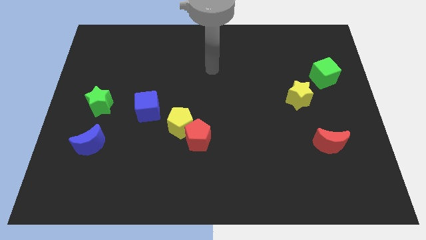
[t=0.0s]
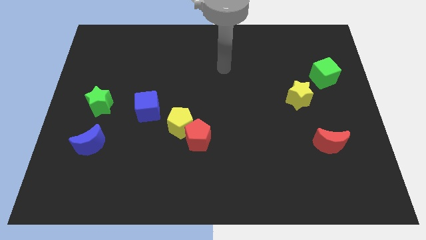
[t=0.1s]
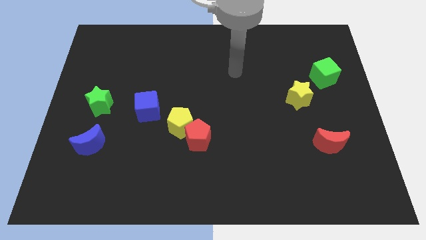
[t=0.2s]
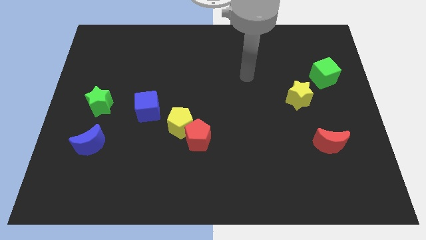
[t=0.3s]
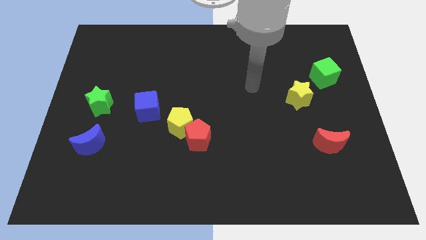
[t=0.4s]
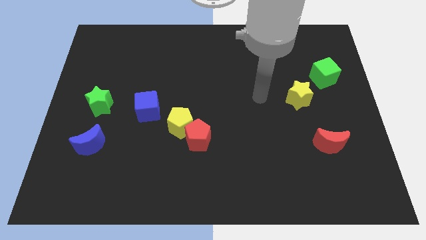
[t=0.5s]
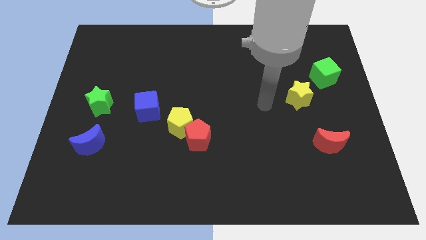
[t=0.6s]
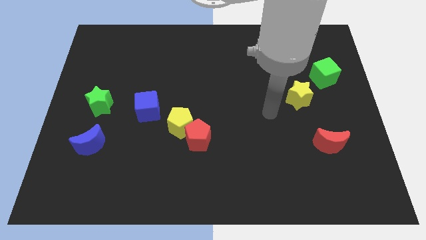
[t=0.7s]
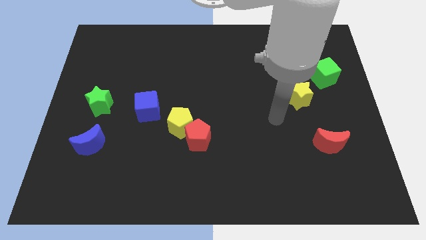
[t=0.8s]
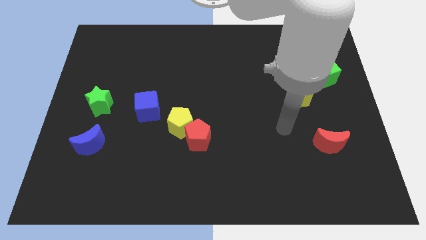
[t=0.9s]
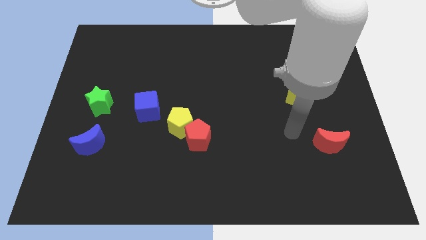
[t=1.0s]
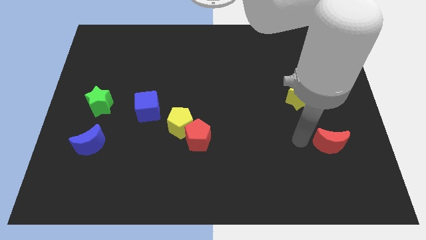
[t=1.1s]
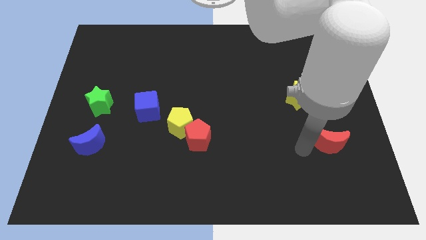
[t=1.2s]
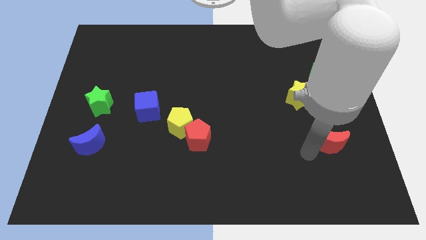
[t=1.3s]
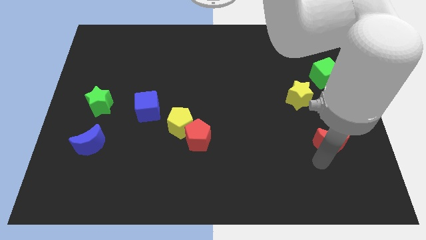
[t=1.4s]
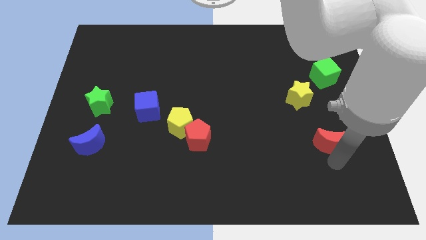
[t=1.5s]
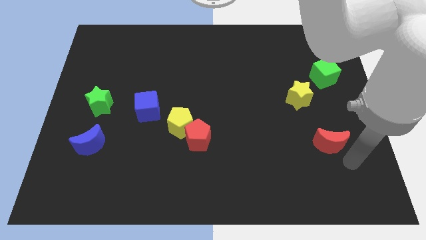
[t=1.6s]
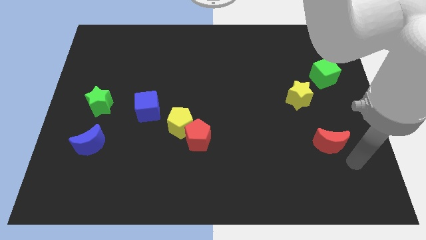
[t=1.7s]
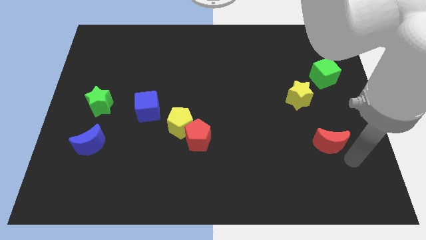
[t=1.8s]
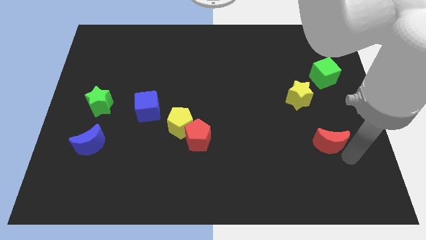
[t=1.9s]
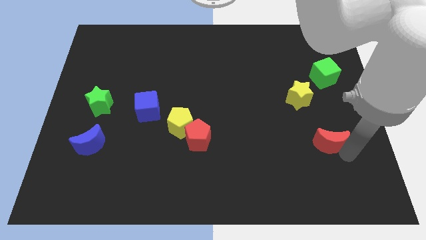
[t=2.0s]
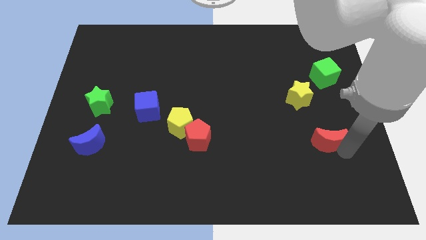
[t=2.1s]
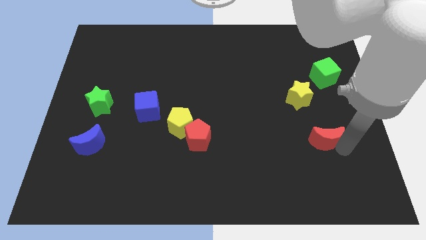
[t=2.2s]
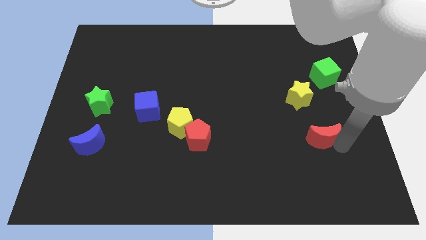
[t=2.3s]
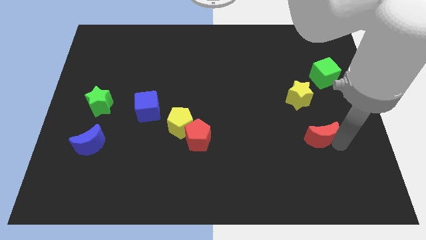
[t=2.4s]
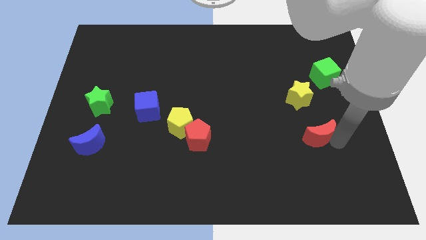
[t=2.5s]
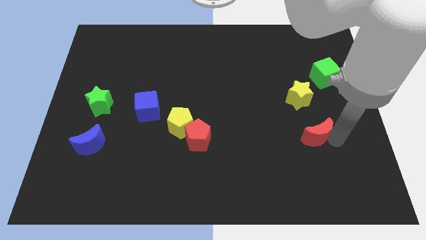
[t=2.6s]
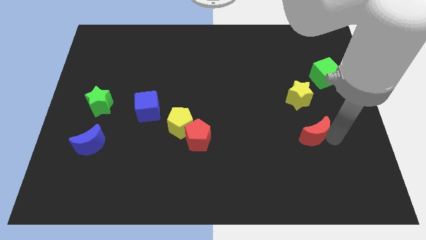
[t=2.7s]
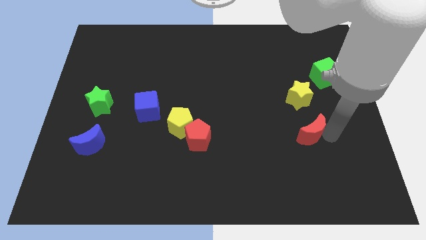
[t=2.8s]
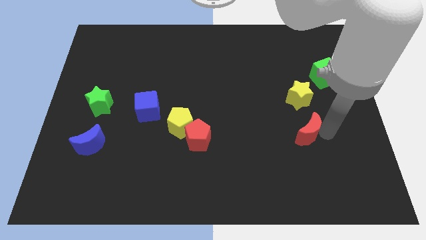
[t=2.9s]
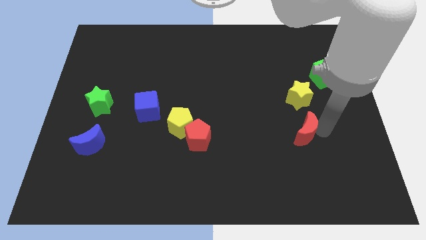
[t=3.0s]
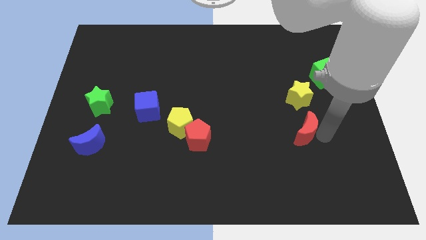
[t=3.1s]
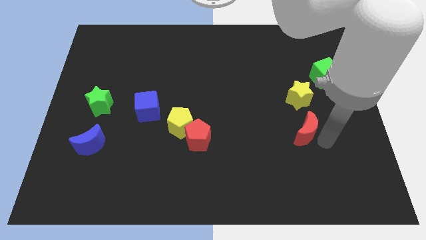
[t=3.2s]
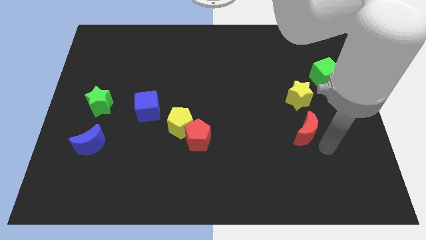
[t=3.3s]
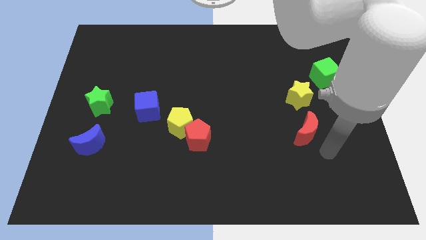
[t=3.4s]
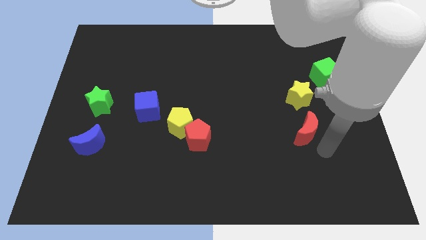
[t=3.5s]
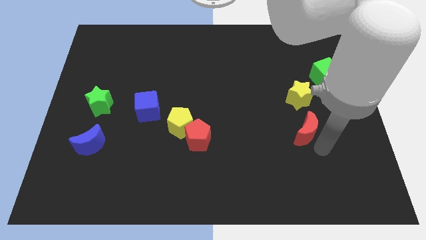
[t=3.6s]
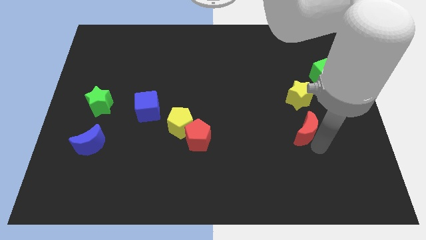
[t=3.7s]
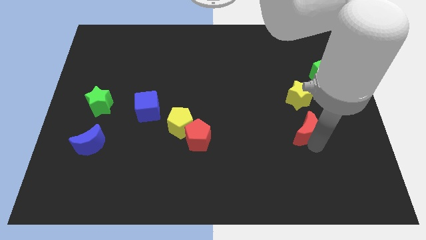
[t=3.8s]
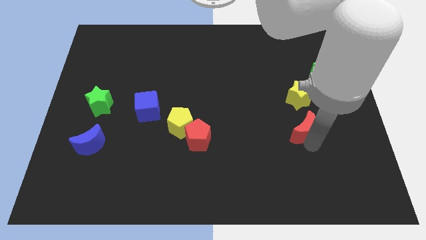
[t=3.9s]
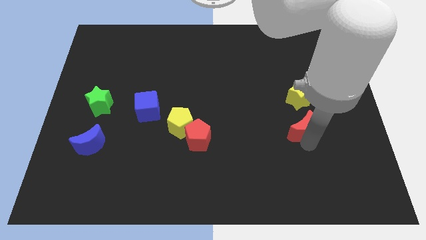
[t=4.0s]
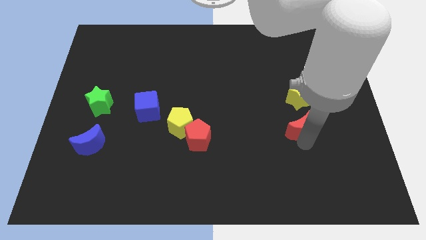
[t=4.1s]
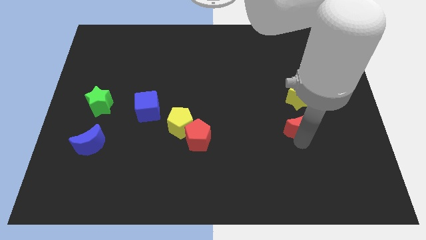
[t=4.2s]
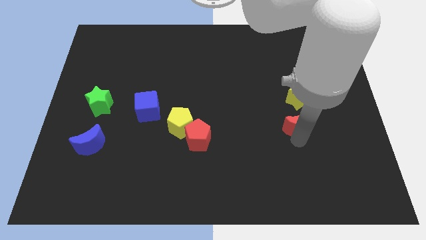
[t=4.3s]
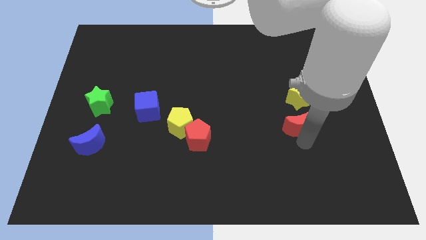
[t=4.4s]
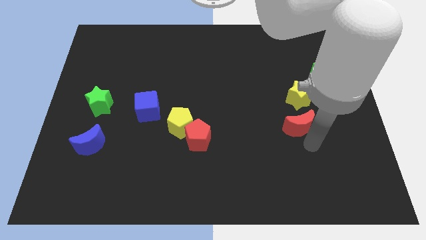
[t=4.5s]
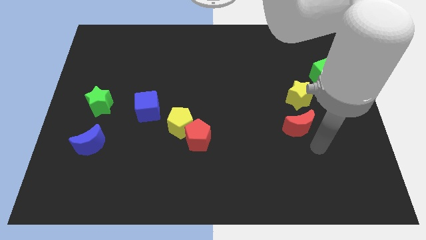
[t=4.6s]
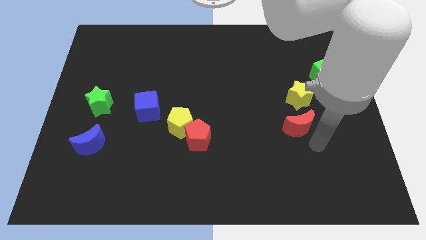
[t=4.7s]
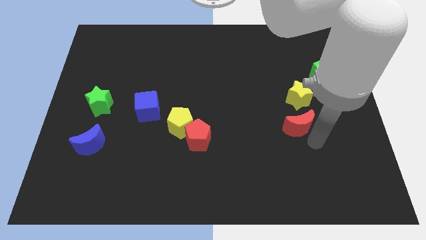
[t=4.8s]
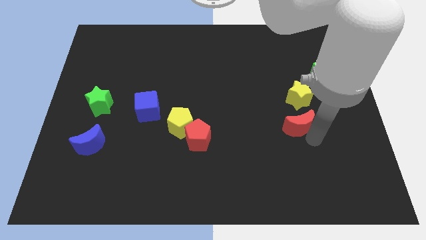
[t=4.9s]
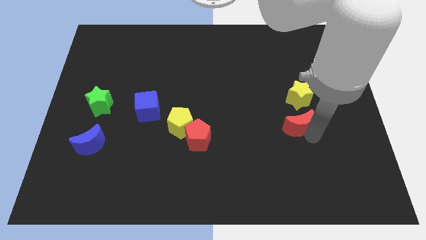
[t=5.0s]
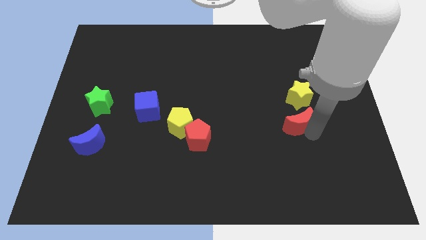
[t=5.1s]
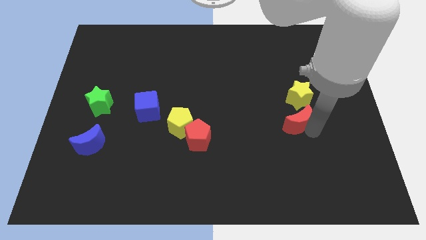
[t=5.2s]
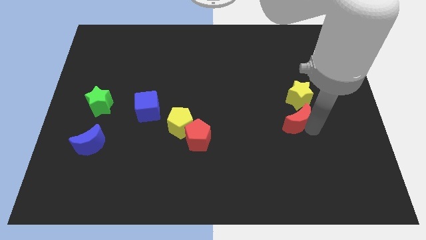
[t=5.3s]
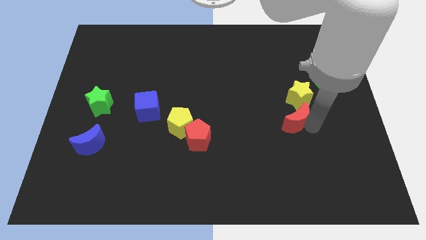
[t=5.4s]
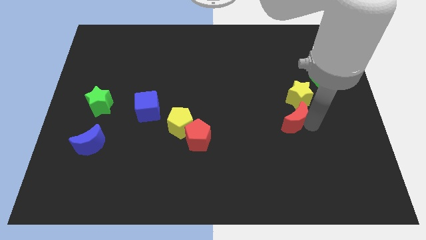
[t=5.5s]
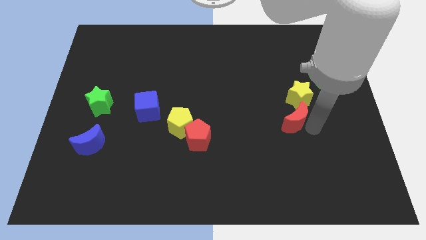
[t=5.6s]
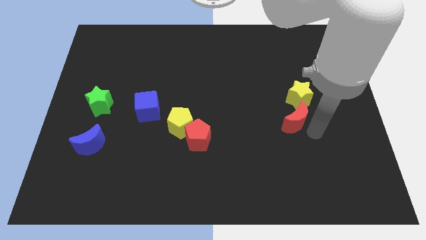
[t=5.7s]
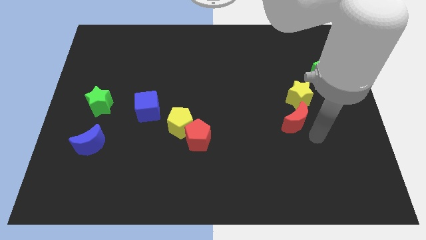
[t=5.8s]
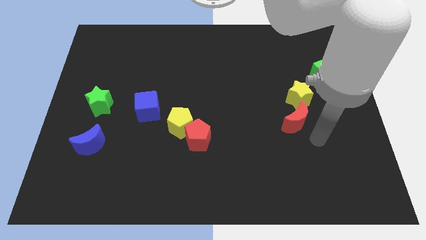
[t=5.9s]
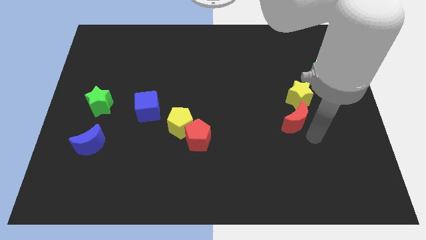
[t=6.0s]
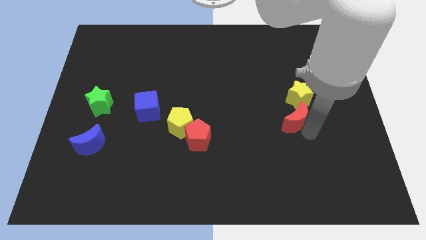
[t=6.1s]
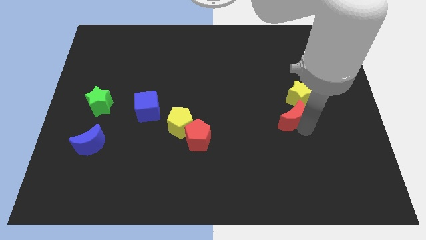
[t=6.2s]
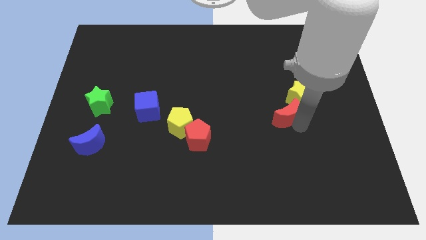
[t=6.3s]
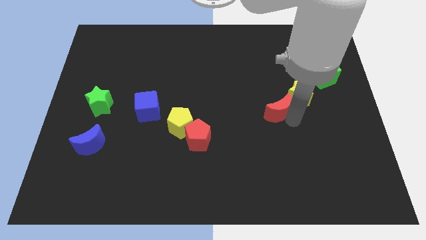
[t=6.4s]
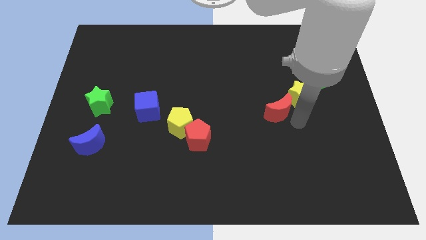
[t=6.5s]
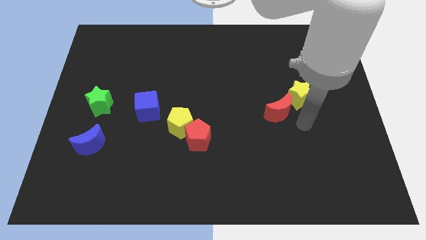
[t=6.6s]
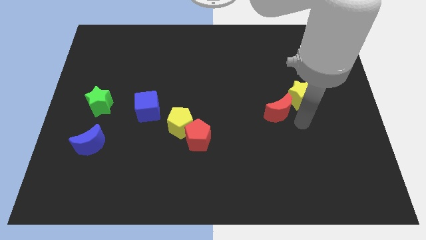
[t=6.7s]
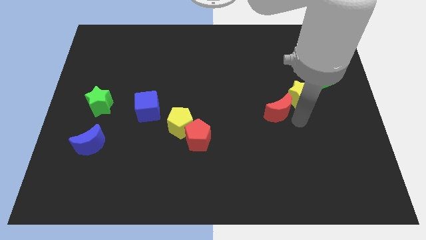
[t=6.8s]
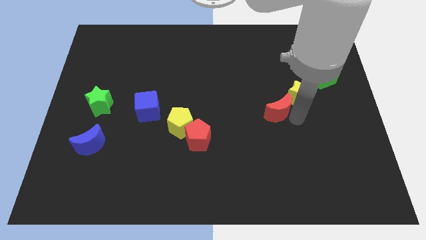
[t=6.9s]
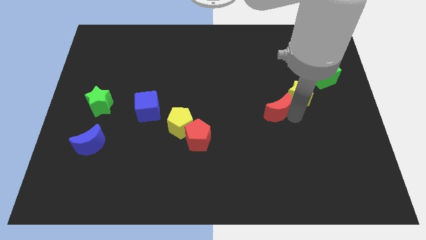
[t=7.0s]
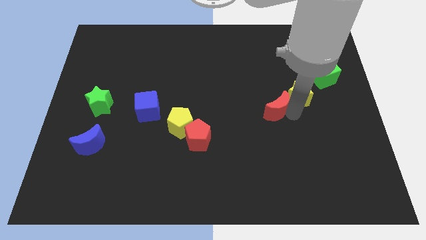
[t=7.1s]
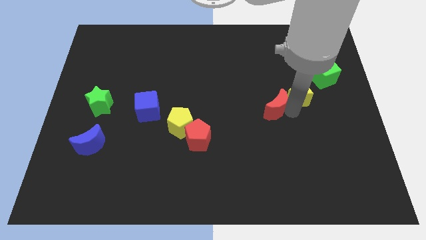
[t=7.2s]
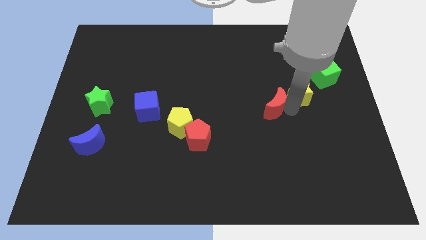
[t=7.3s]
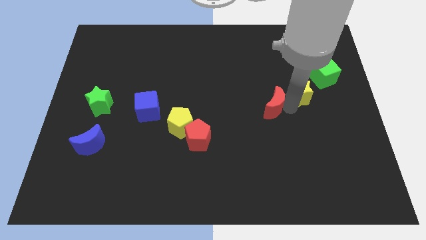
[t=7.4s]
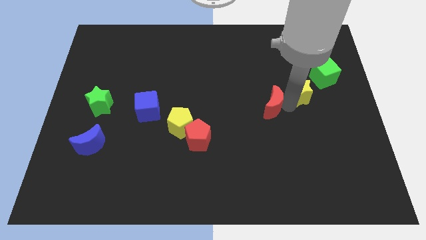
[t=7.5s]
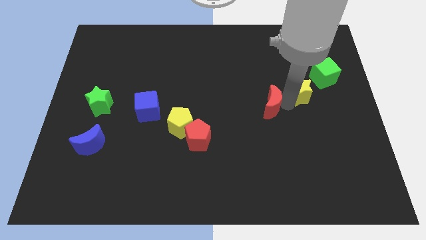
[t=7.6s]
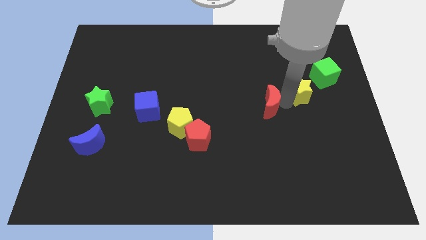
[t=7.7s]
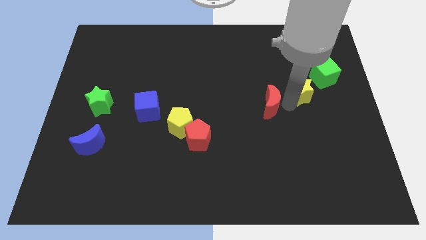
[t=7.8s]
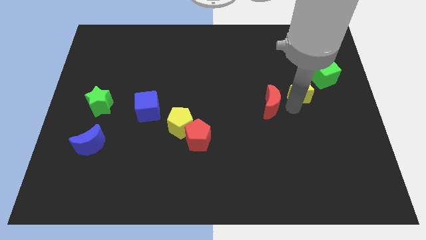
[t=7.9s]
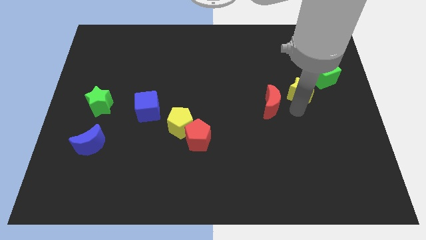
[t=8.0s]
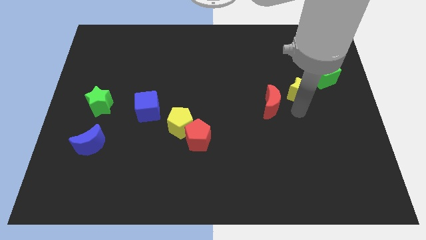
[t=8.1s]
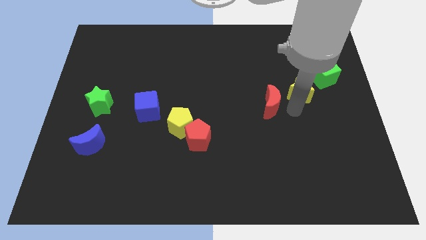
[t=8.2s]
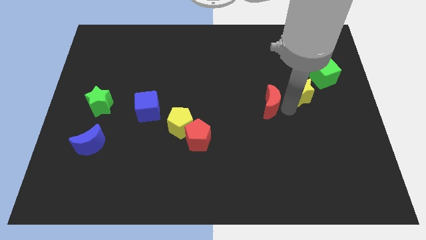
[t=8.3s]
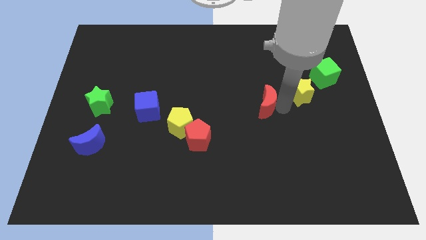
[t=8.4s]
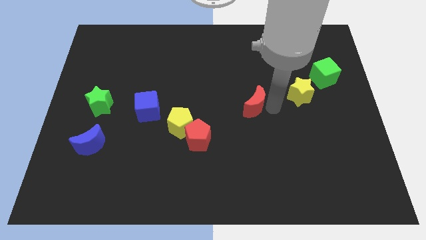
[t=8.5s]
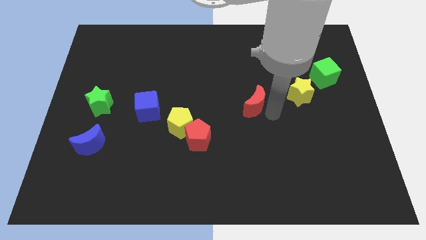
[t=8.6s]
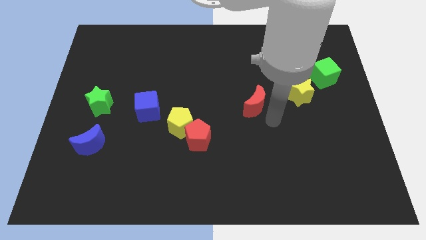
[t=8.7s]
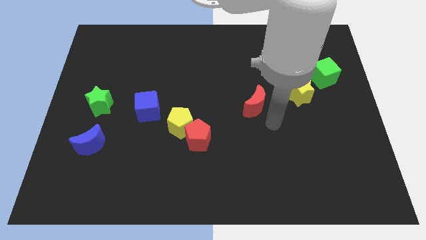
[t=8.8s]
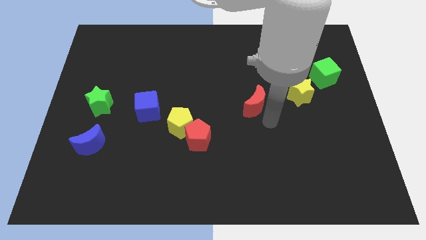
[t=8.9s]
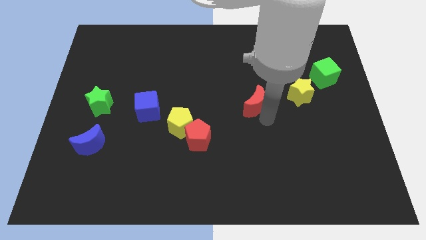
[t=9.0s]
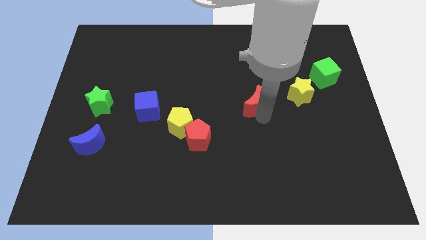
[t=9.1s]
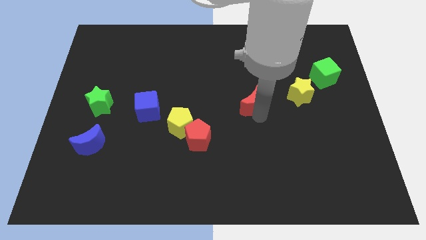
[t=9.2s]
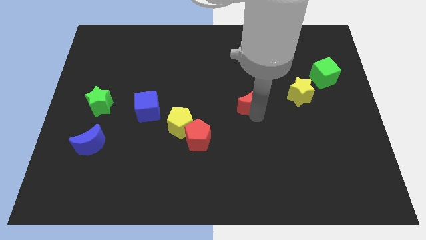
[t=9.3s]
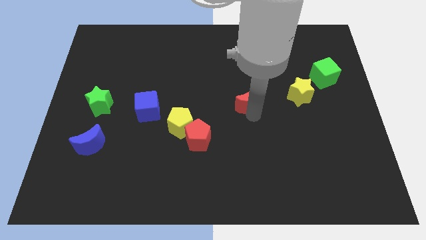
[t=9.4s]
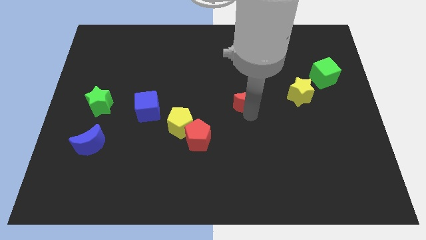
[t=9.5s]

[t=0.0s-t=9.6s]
move the red moon diagonally upwards and left
